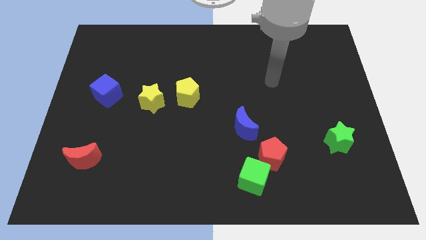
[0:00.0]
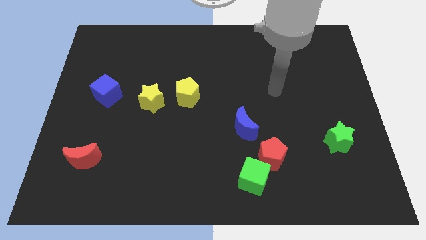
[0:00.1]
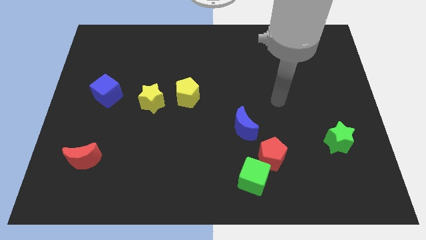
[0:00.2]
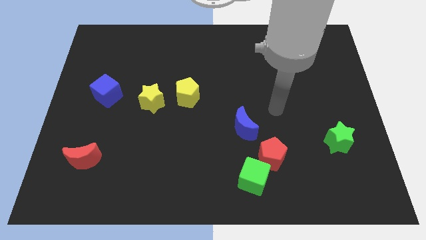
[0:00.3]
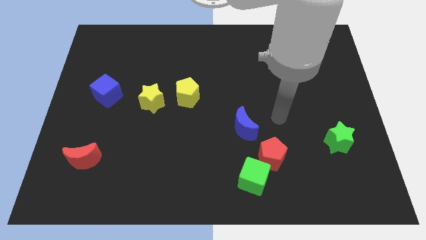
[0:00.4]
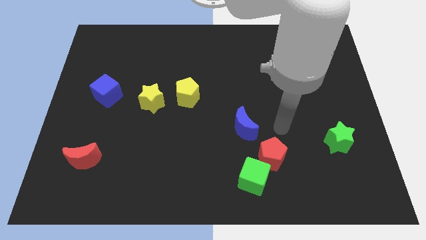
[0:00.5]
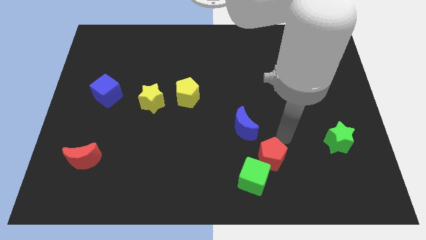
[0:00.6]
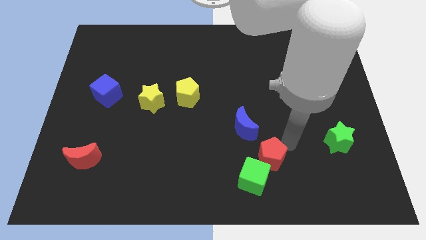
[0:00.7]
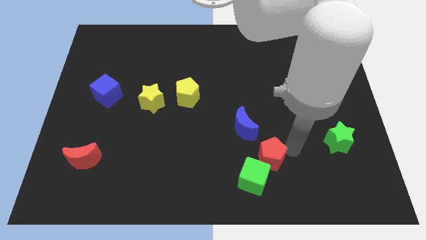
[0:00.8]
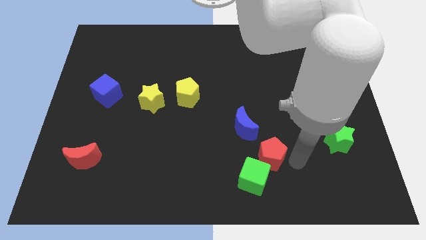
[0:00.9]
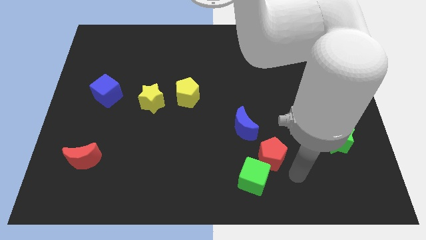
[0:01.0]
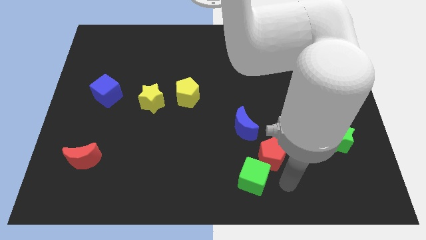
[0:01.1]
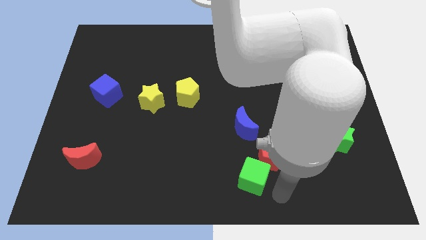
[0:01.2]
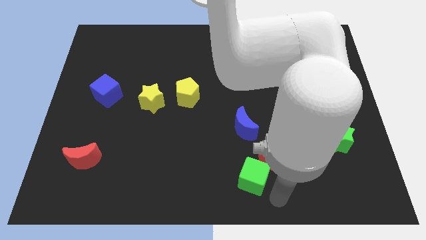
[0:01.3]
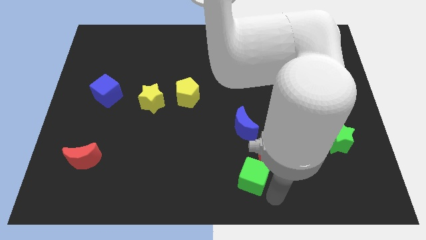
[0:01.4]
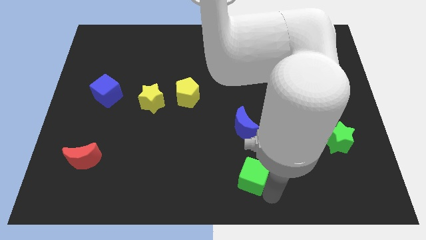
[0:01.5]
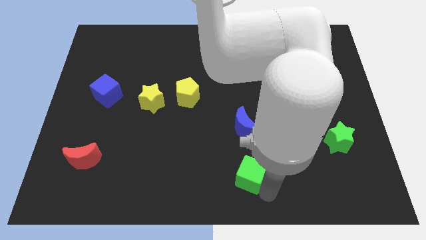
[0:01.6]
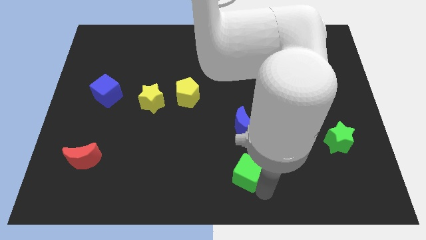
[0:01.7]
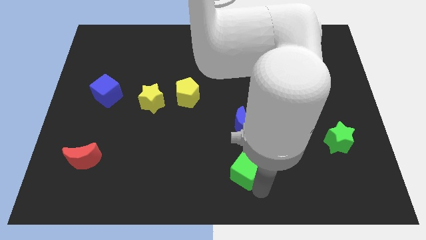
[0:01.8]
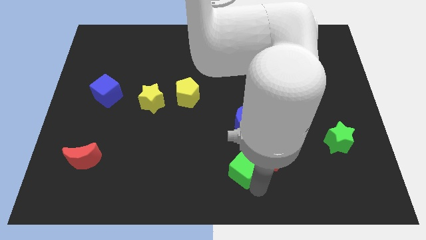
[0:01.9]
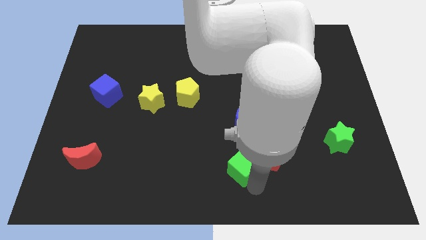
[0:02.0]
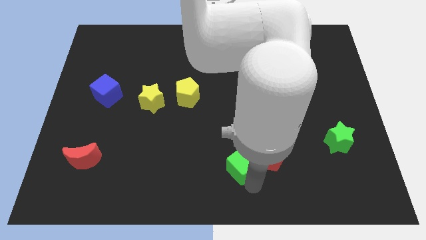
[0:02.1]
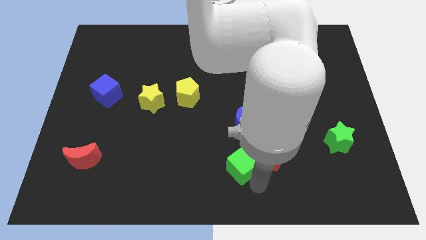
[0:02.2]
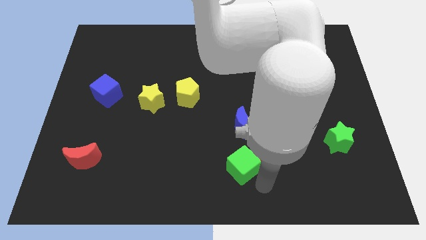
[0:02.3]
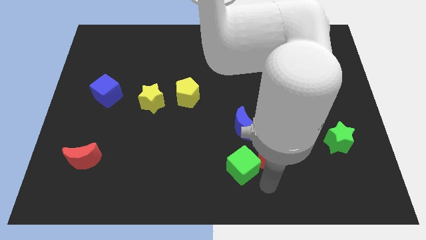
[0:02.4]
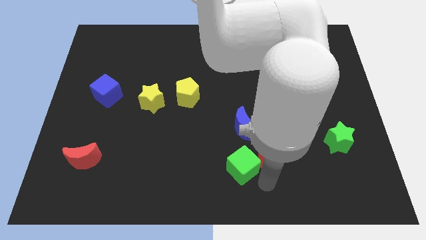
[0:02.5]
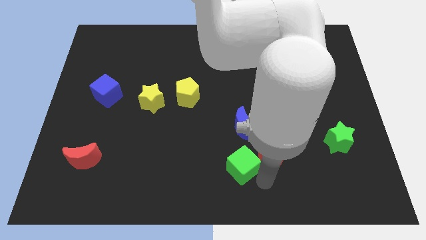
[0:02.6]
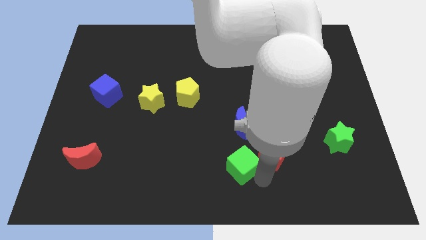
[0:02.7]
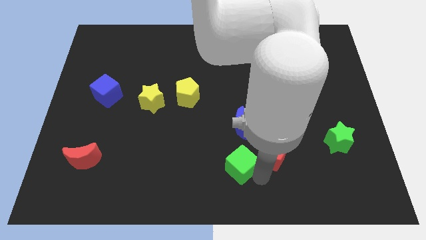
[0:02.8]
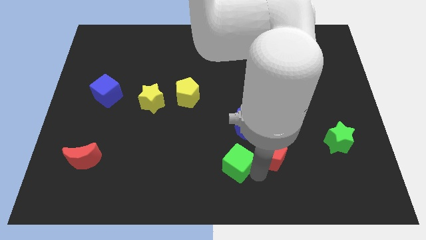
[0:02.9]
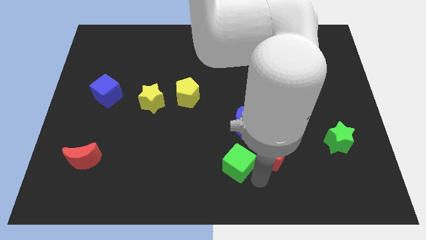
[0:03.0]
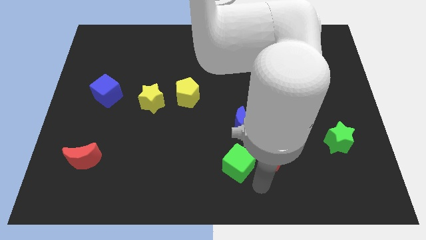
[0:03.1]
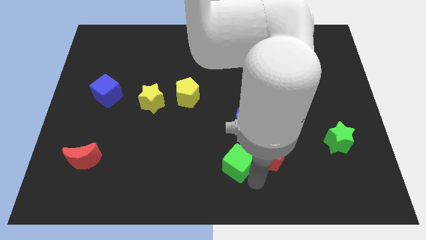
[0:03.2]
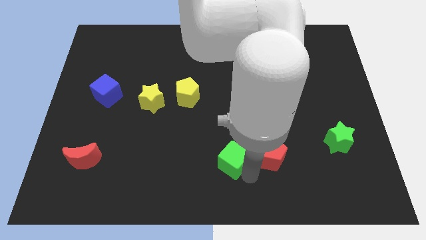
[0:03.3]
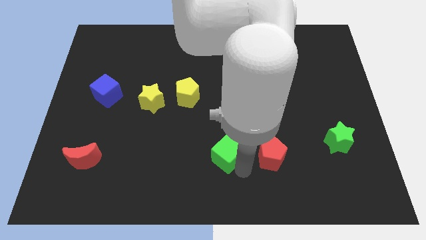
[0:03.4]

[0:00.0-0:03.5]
slightly push the green cube up and left diagonally

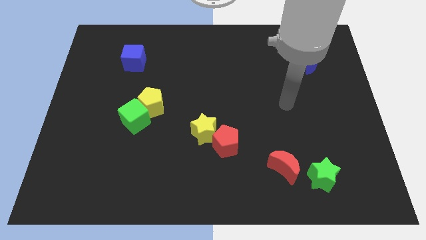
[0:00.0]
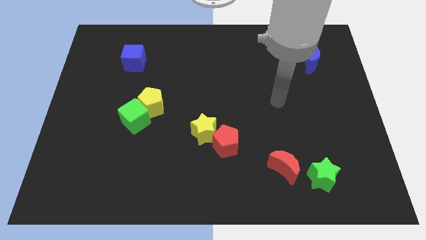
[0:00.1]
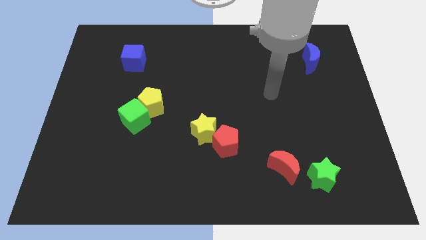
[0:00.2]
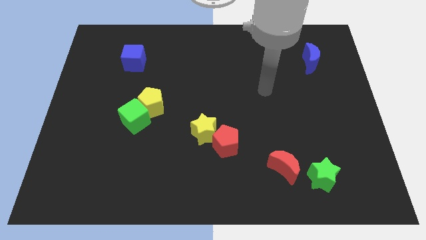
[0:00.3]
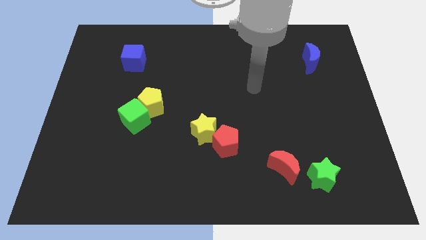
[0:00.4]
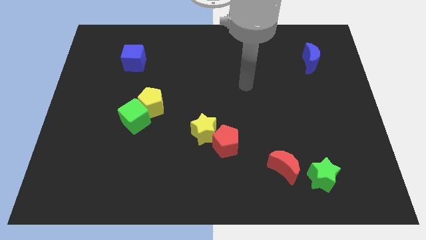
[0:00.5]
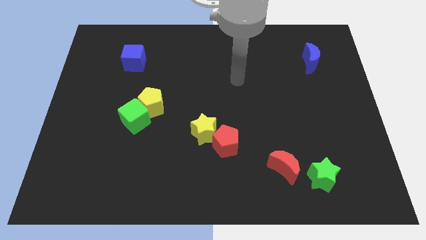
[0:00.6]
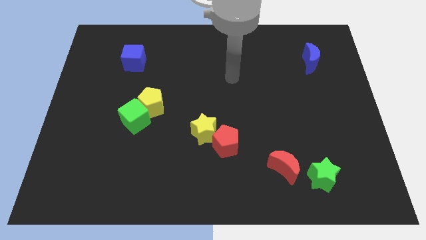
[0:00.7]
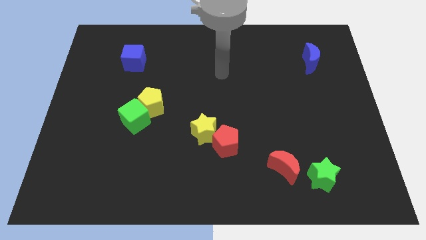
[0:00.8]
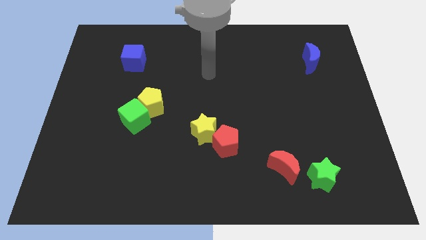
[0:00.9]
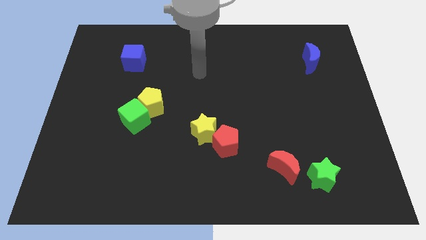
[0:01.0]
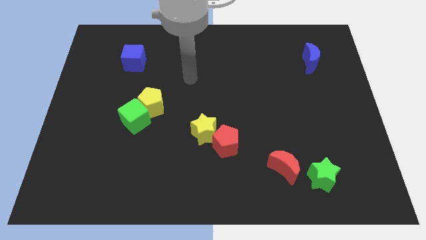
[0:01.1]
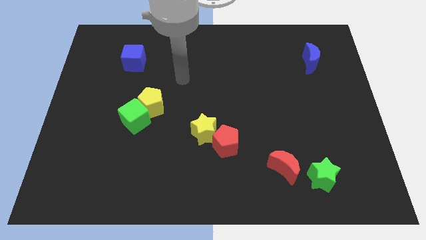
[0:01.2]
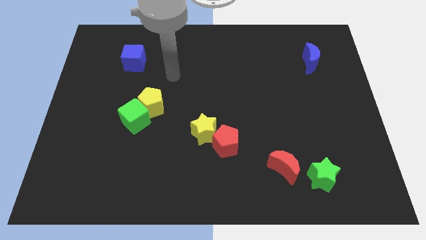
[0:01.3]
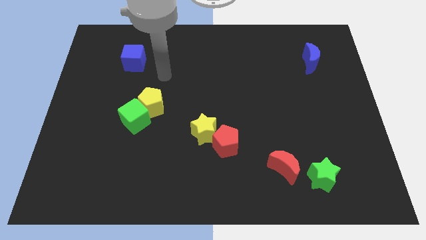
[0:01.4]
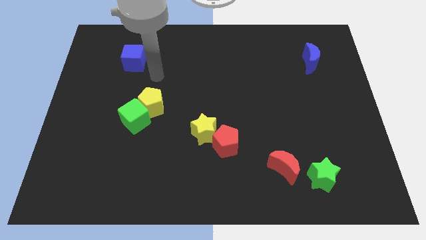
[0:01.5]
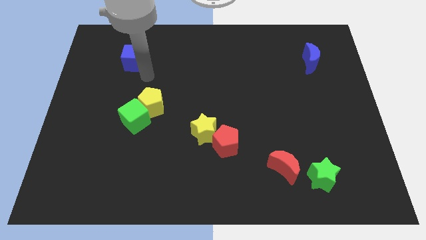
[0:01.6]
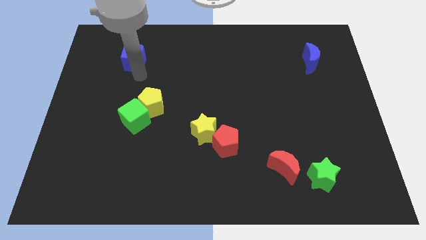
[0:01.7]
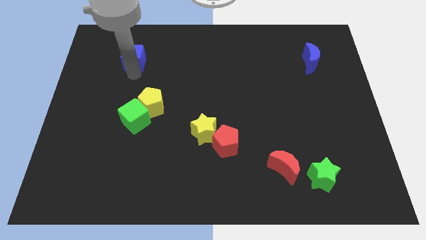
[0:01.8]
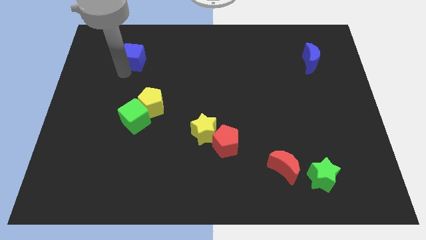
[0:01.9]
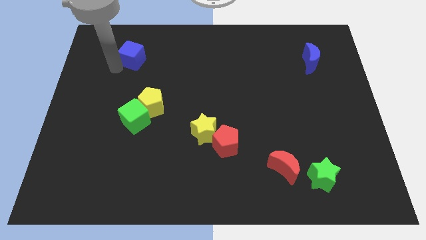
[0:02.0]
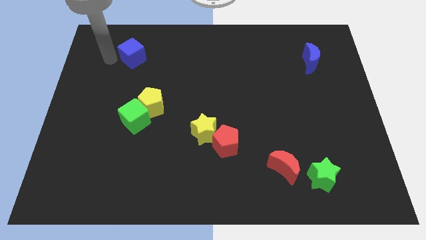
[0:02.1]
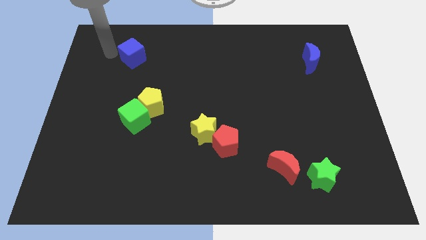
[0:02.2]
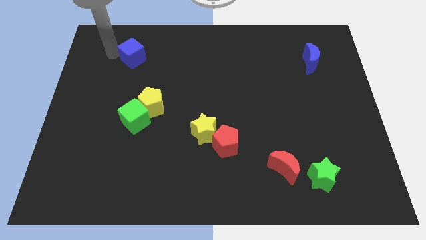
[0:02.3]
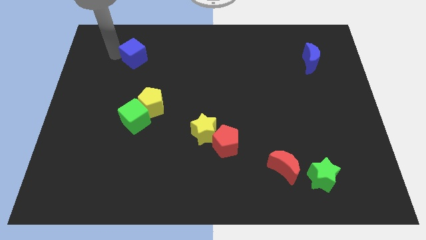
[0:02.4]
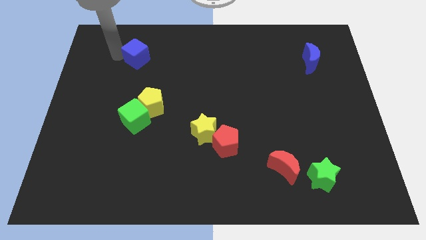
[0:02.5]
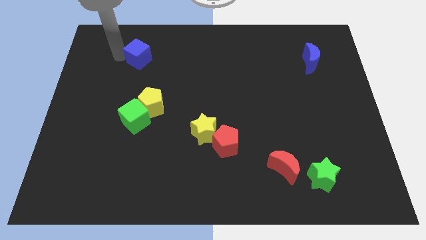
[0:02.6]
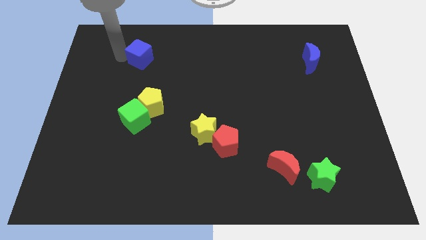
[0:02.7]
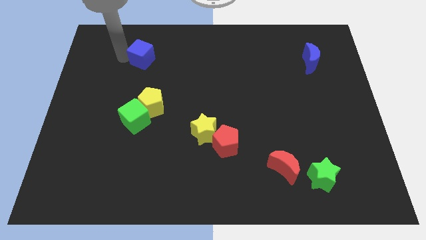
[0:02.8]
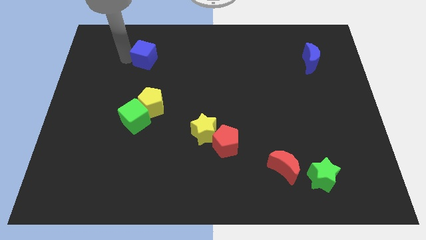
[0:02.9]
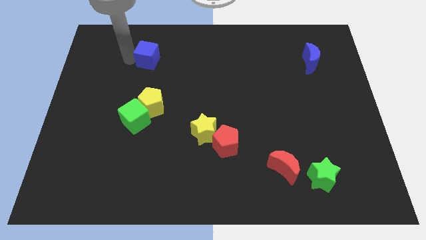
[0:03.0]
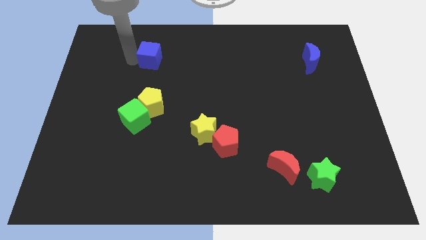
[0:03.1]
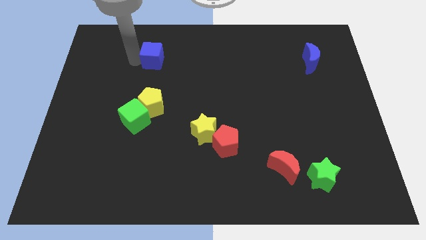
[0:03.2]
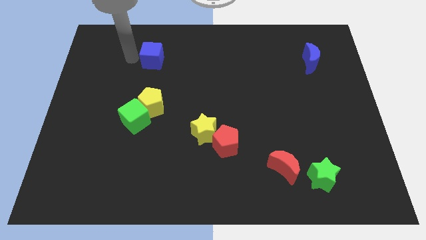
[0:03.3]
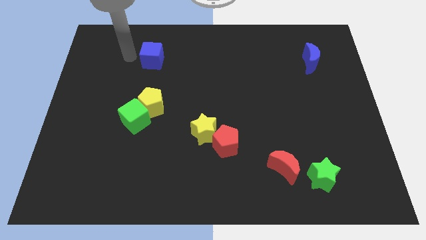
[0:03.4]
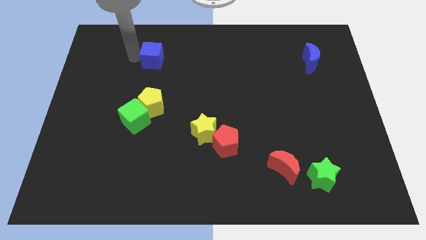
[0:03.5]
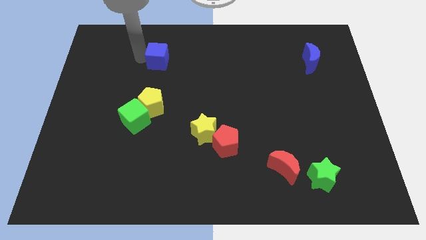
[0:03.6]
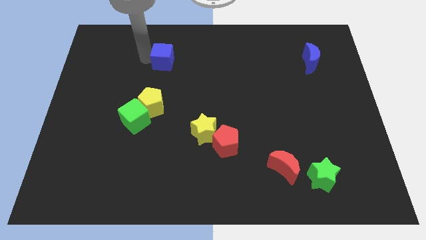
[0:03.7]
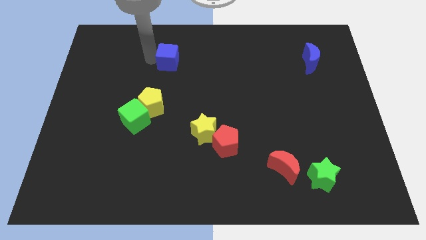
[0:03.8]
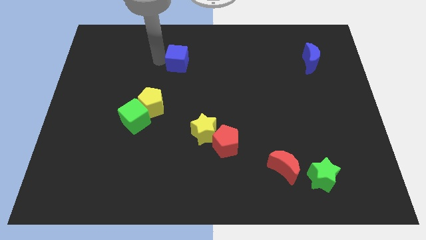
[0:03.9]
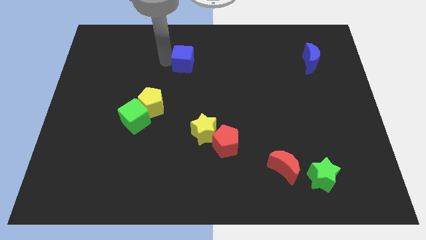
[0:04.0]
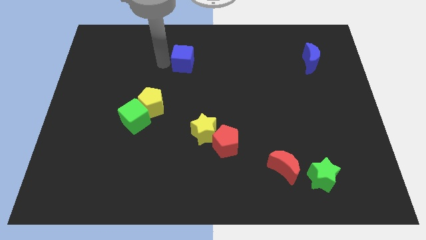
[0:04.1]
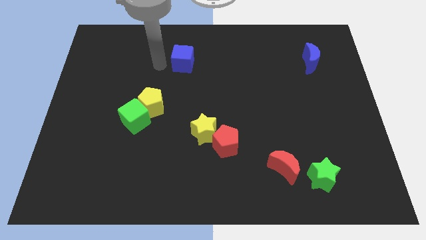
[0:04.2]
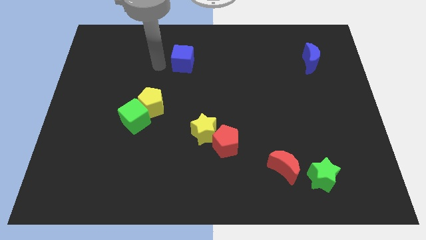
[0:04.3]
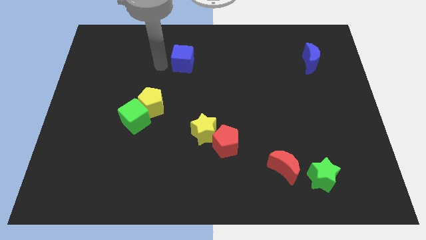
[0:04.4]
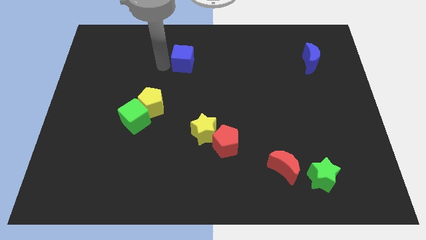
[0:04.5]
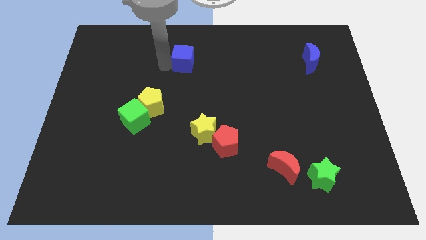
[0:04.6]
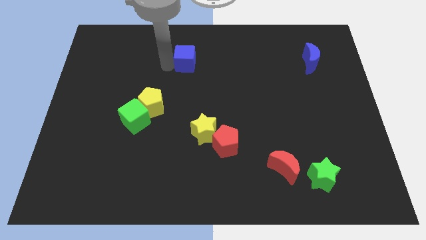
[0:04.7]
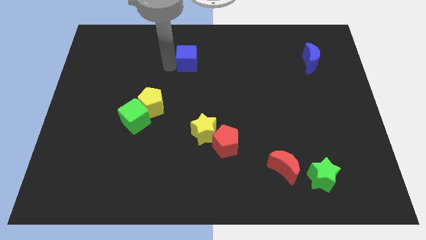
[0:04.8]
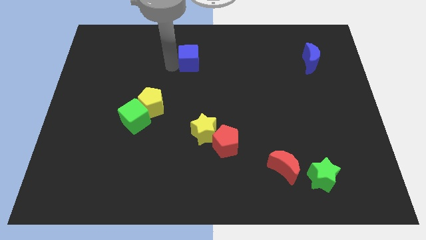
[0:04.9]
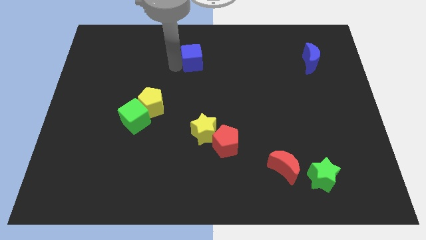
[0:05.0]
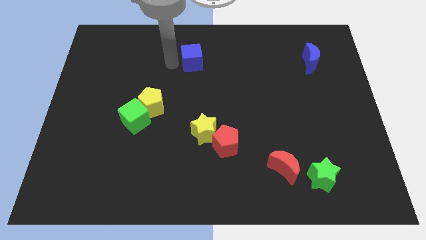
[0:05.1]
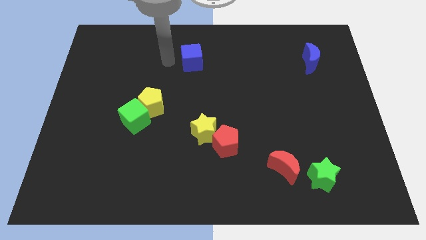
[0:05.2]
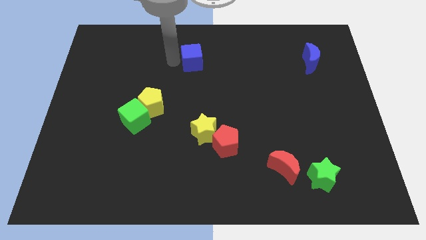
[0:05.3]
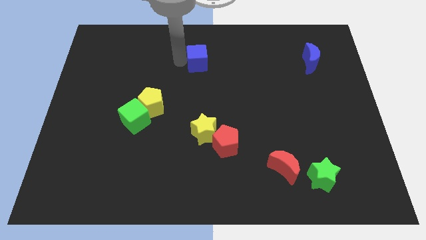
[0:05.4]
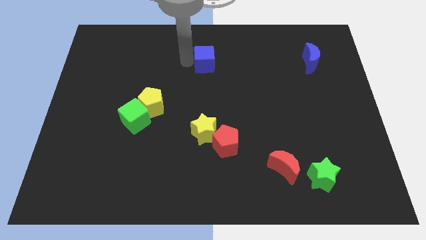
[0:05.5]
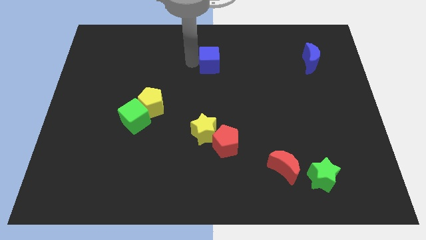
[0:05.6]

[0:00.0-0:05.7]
push the blue cube right
